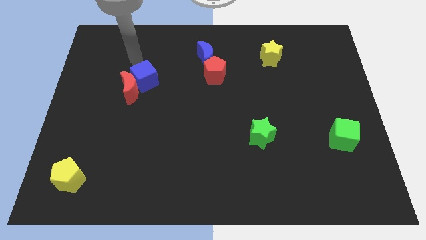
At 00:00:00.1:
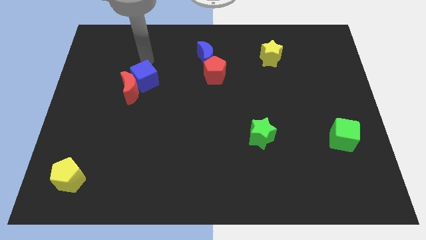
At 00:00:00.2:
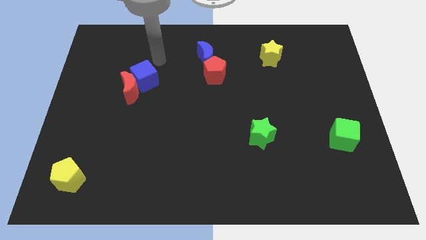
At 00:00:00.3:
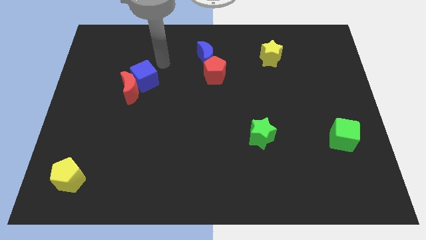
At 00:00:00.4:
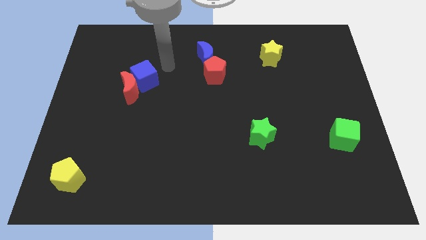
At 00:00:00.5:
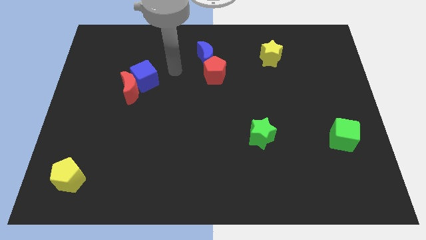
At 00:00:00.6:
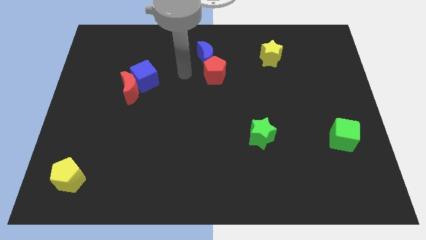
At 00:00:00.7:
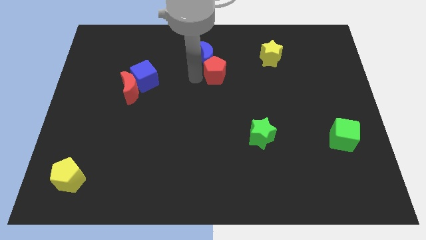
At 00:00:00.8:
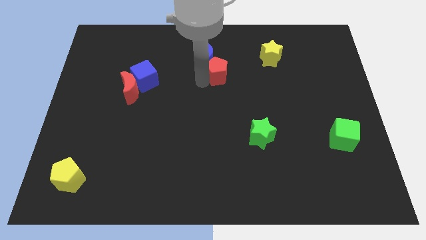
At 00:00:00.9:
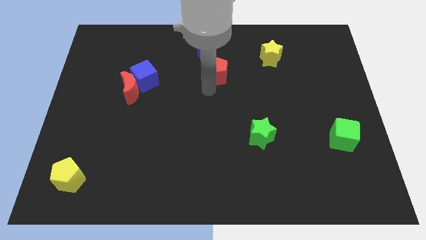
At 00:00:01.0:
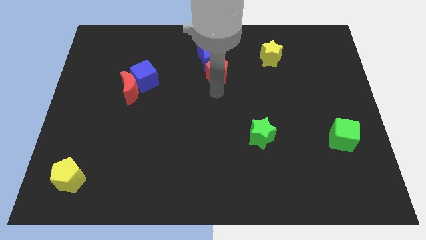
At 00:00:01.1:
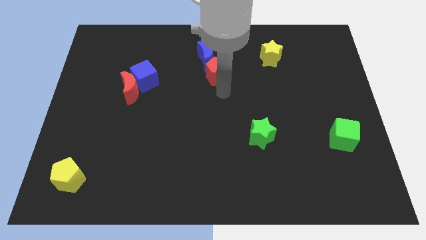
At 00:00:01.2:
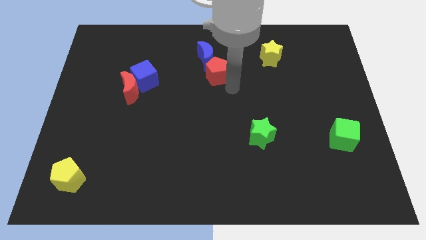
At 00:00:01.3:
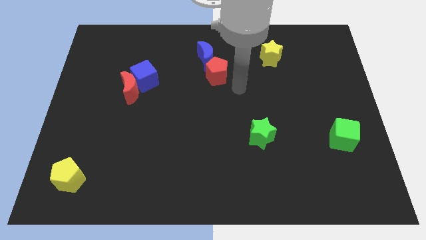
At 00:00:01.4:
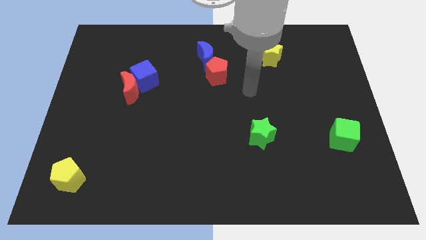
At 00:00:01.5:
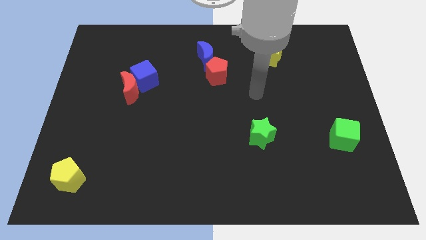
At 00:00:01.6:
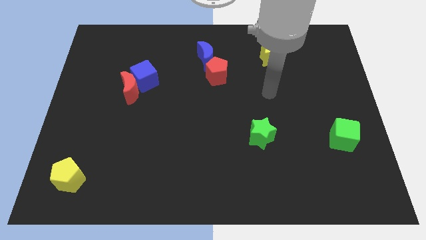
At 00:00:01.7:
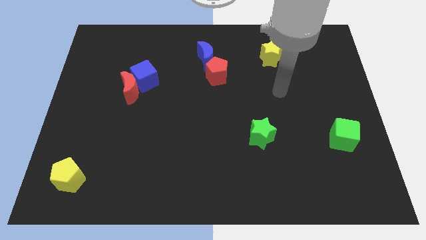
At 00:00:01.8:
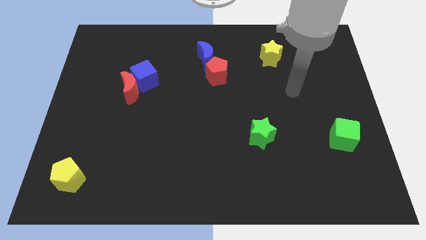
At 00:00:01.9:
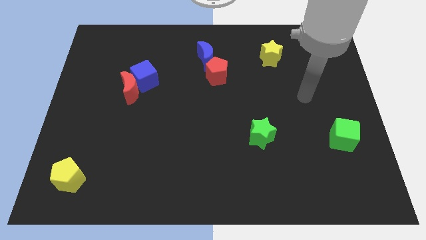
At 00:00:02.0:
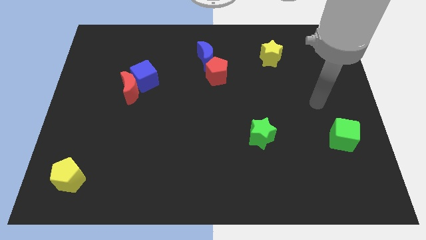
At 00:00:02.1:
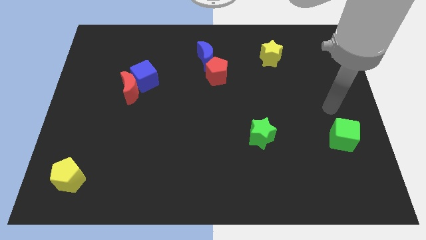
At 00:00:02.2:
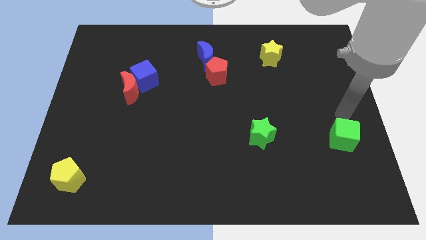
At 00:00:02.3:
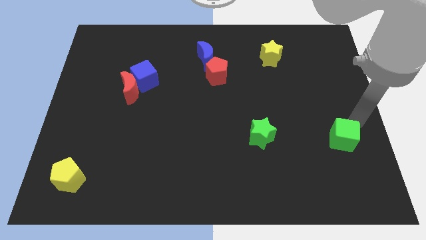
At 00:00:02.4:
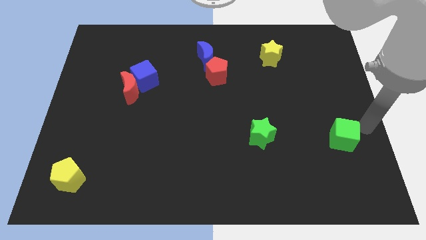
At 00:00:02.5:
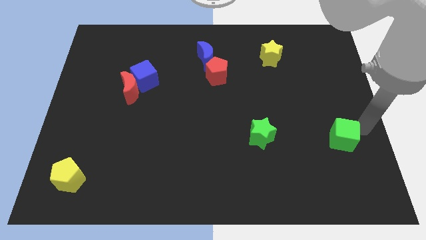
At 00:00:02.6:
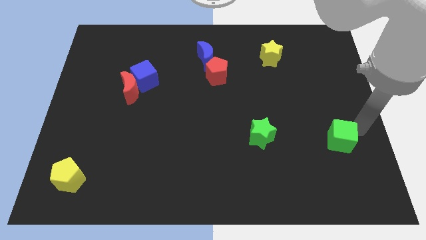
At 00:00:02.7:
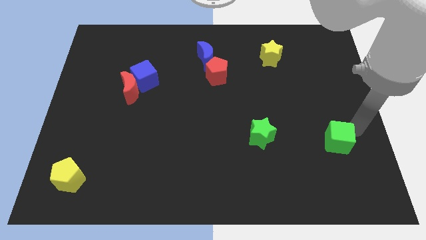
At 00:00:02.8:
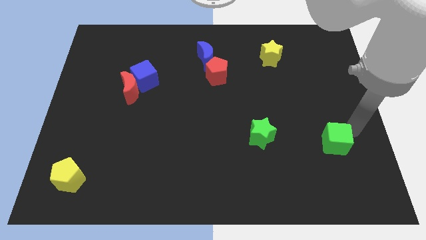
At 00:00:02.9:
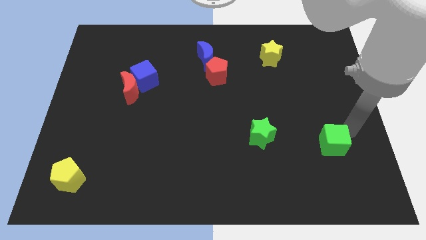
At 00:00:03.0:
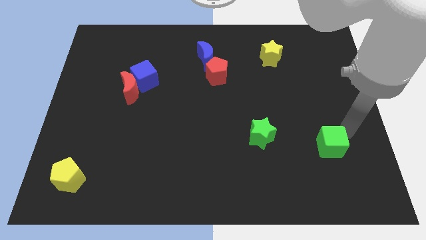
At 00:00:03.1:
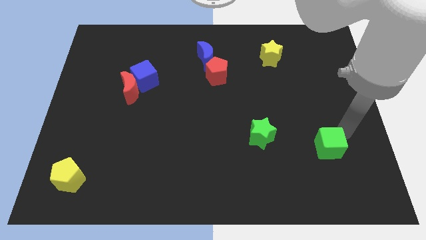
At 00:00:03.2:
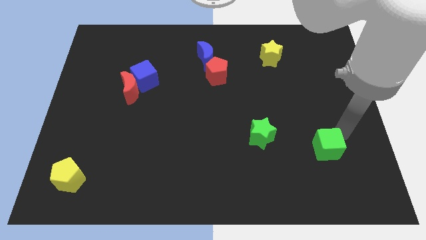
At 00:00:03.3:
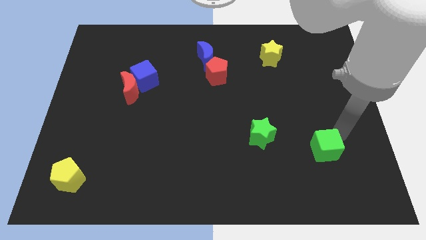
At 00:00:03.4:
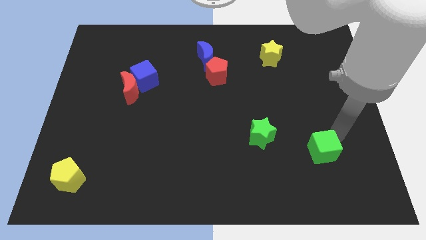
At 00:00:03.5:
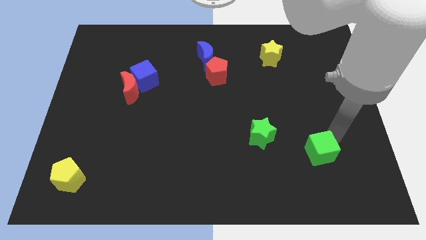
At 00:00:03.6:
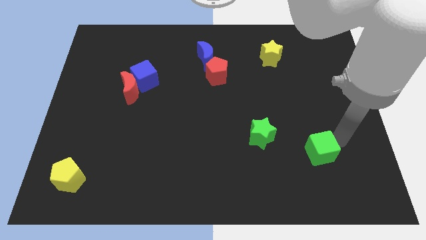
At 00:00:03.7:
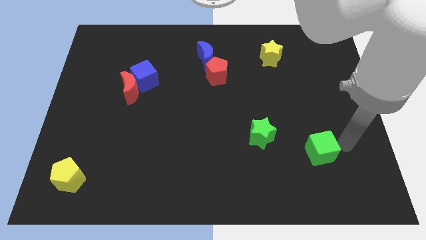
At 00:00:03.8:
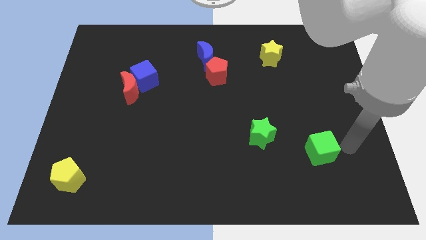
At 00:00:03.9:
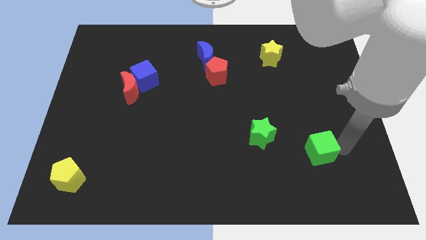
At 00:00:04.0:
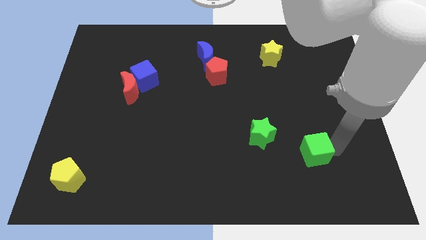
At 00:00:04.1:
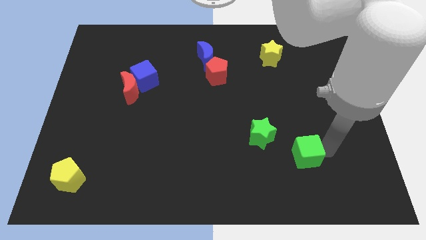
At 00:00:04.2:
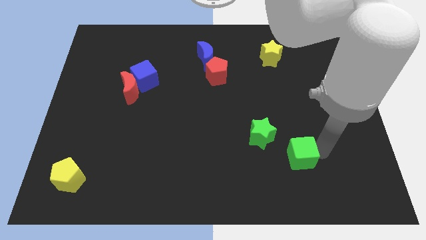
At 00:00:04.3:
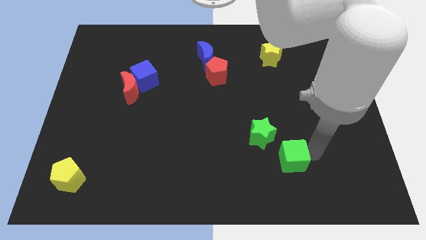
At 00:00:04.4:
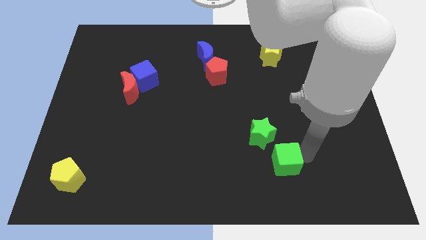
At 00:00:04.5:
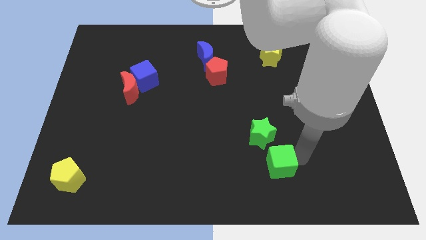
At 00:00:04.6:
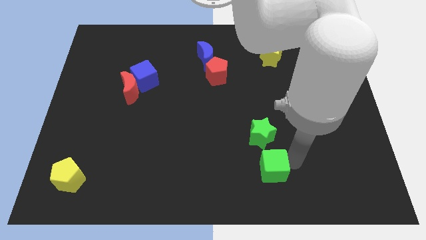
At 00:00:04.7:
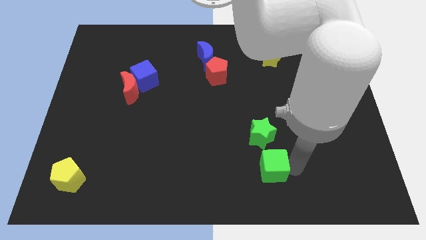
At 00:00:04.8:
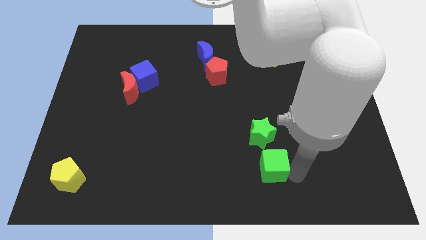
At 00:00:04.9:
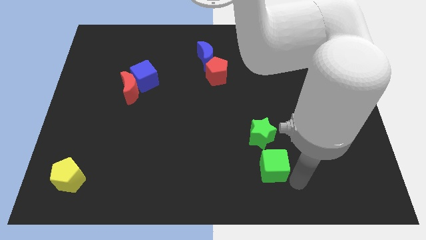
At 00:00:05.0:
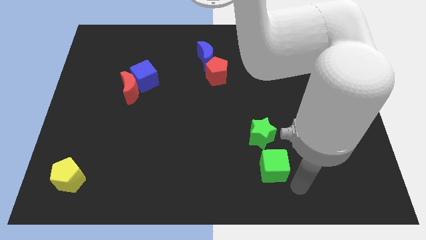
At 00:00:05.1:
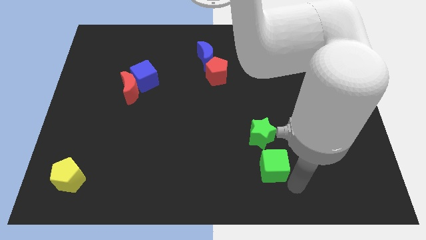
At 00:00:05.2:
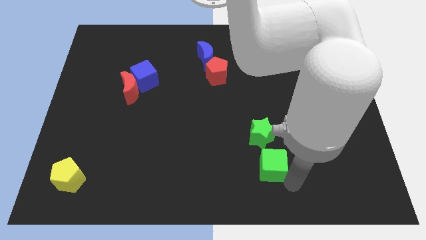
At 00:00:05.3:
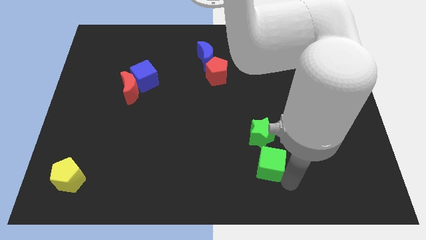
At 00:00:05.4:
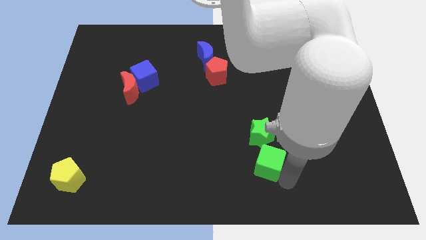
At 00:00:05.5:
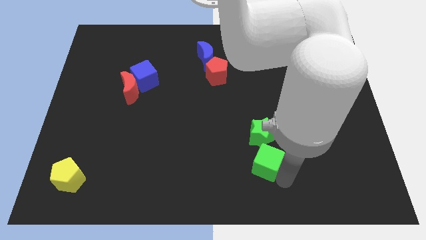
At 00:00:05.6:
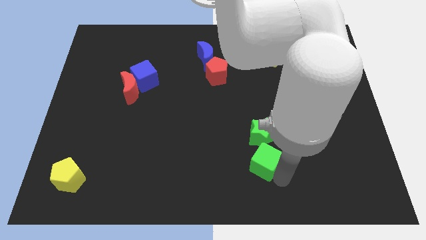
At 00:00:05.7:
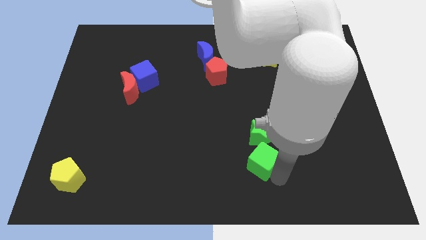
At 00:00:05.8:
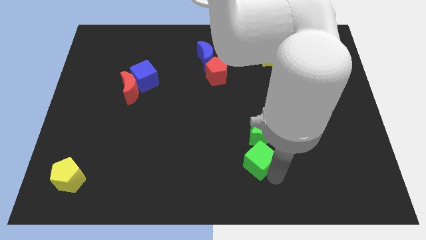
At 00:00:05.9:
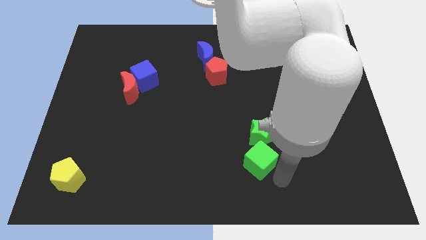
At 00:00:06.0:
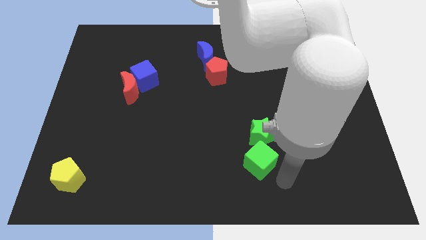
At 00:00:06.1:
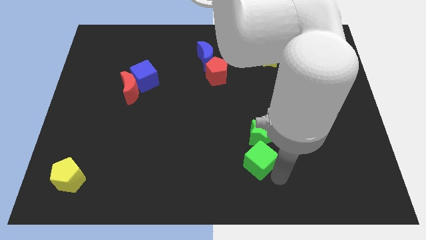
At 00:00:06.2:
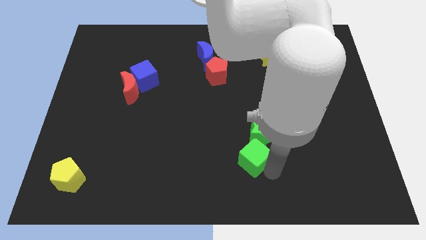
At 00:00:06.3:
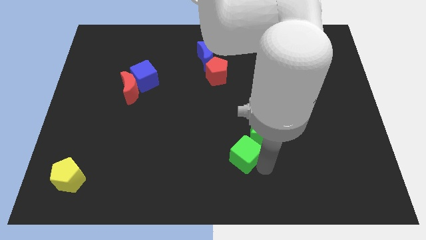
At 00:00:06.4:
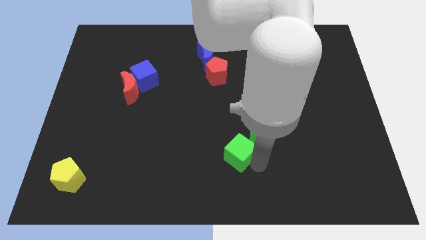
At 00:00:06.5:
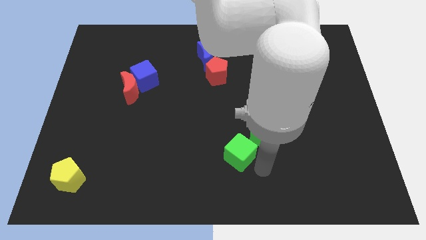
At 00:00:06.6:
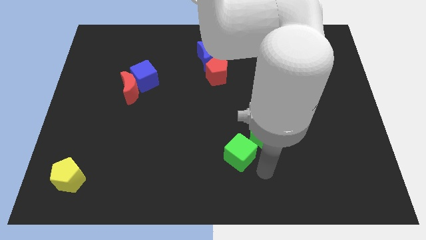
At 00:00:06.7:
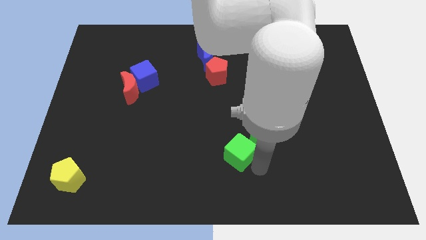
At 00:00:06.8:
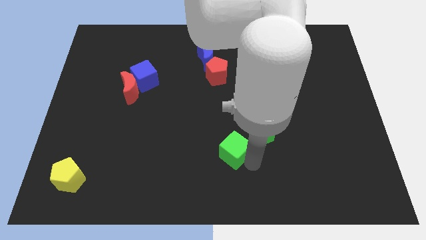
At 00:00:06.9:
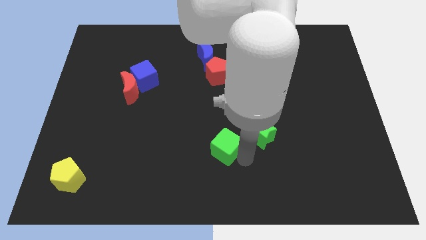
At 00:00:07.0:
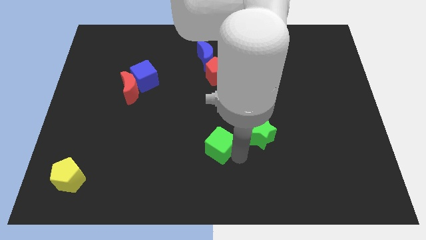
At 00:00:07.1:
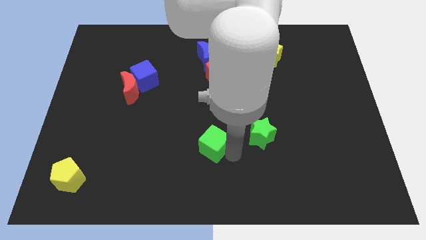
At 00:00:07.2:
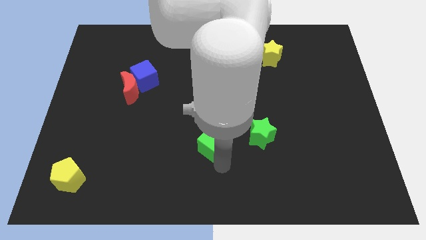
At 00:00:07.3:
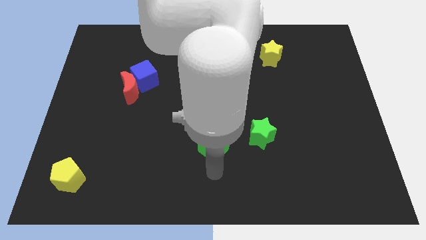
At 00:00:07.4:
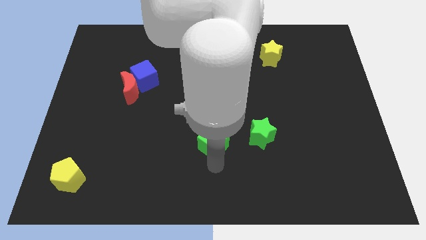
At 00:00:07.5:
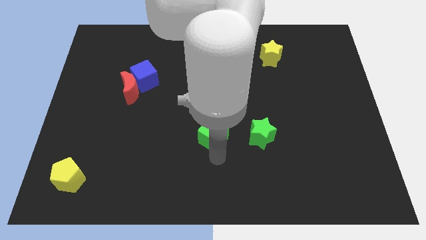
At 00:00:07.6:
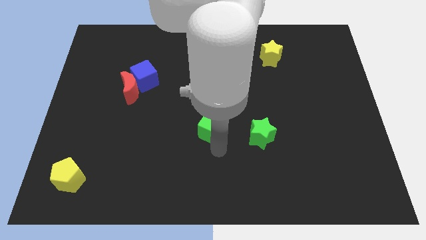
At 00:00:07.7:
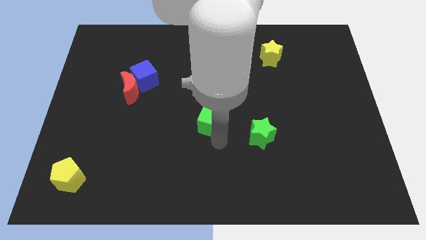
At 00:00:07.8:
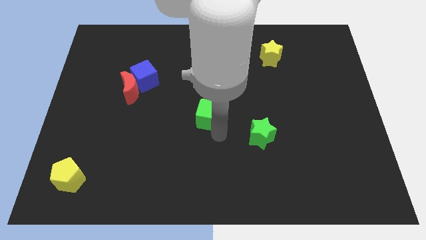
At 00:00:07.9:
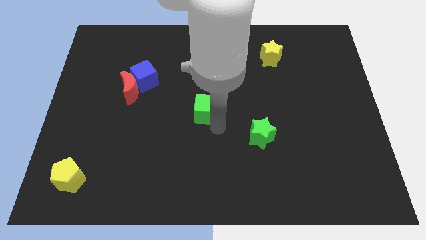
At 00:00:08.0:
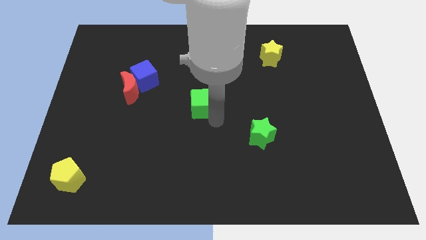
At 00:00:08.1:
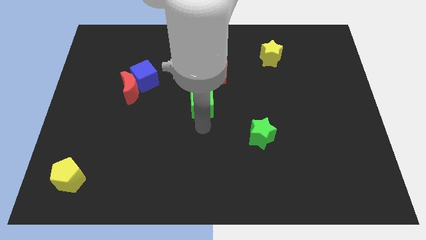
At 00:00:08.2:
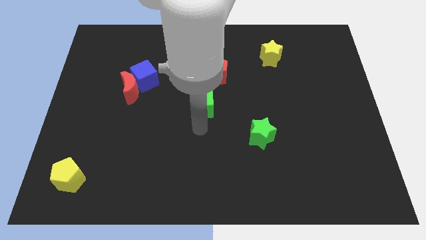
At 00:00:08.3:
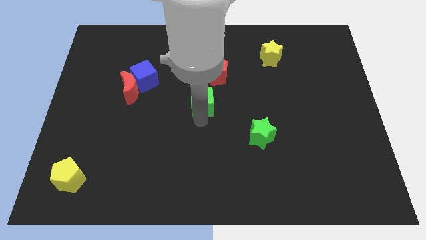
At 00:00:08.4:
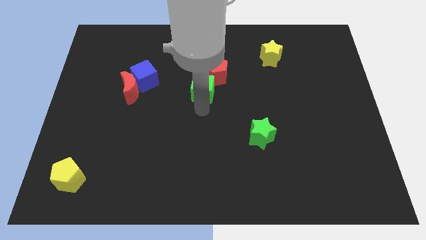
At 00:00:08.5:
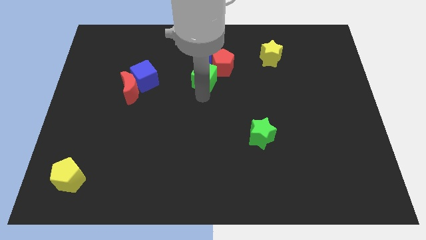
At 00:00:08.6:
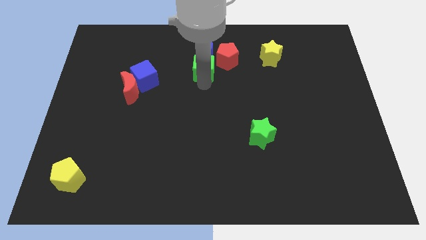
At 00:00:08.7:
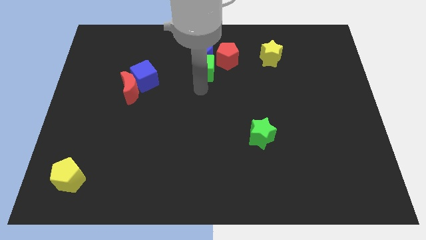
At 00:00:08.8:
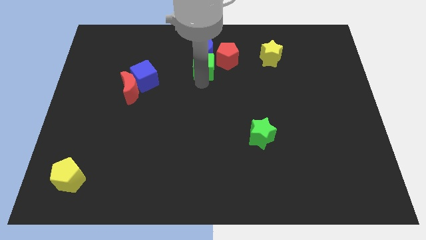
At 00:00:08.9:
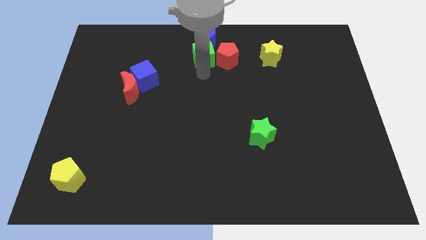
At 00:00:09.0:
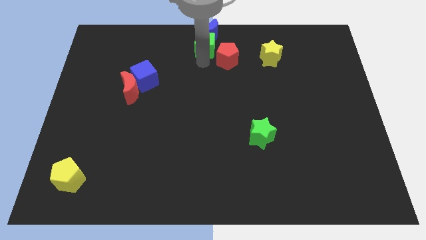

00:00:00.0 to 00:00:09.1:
push the green cube to the towards your base
